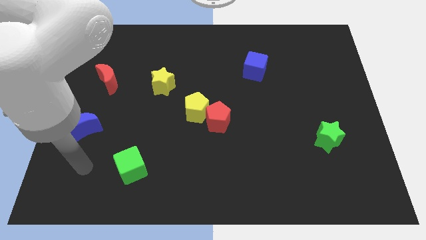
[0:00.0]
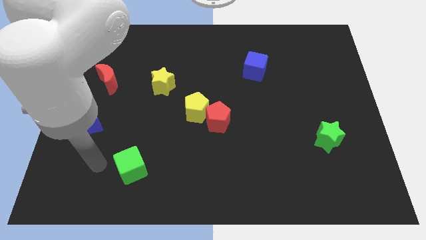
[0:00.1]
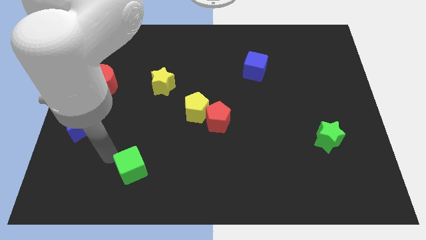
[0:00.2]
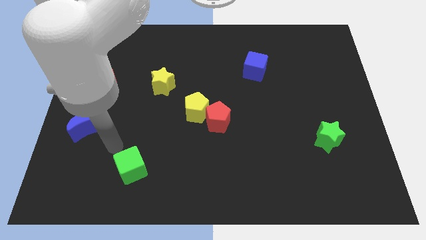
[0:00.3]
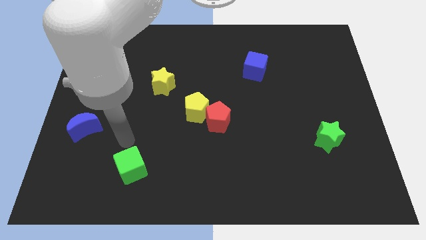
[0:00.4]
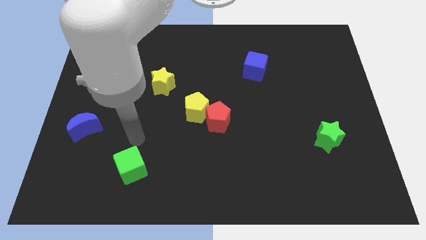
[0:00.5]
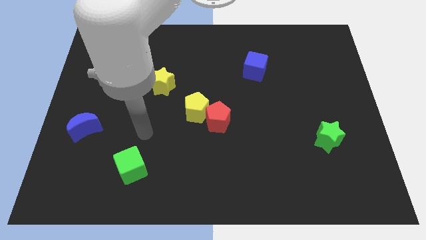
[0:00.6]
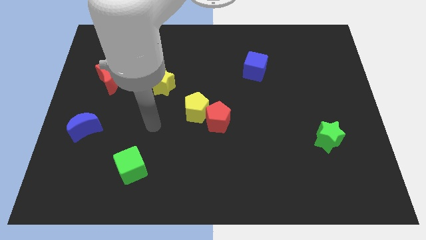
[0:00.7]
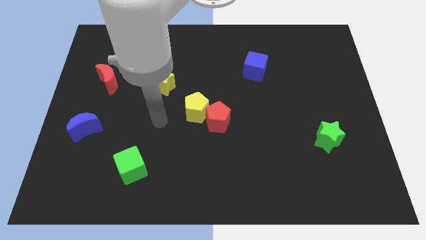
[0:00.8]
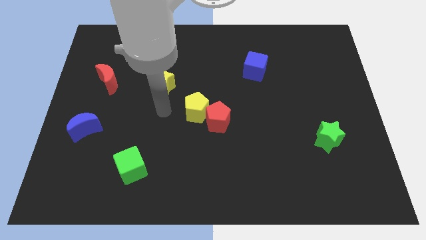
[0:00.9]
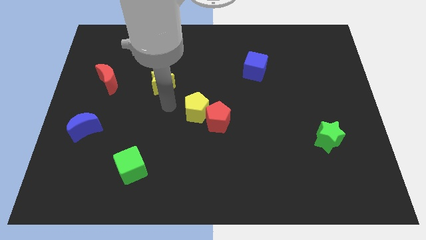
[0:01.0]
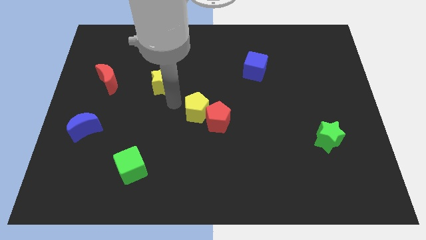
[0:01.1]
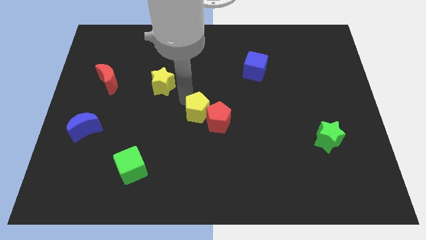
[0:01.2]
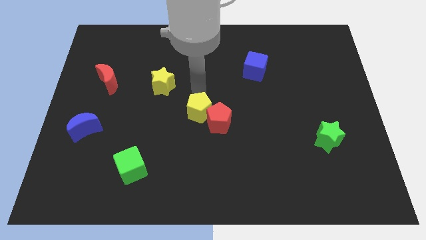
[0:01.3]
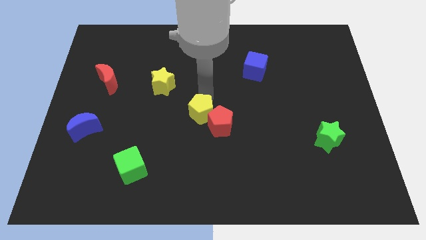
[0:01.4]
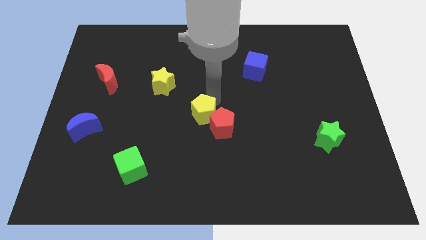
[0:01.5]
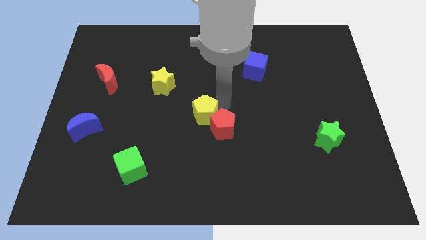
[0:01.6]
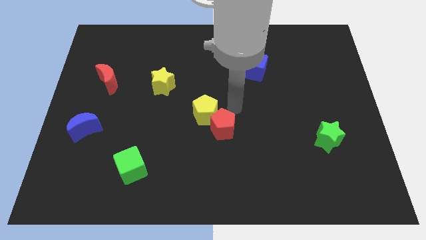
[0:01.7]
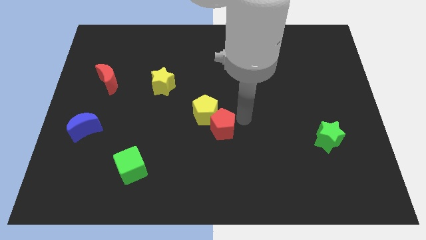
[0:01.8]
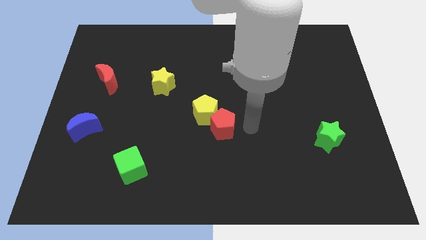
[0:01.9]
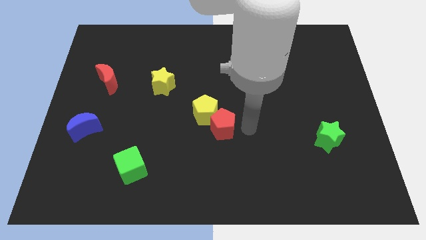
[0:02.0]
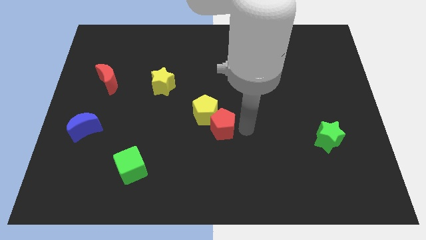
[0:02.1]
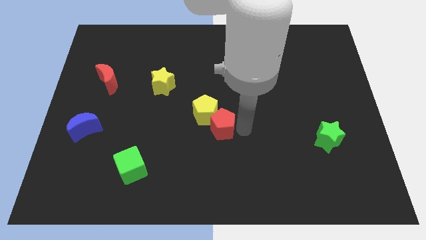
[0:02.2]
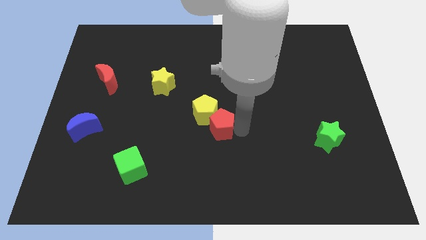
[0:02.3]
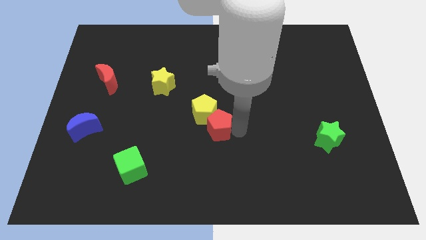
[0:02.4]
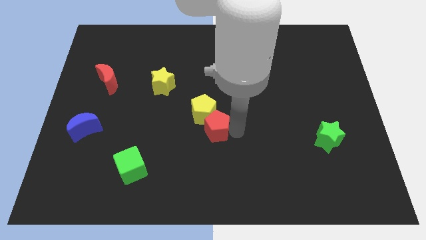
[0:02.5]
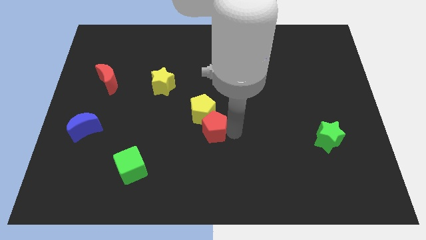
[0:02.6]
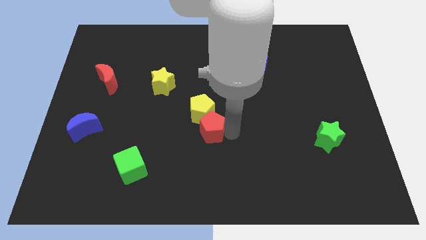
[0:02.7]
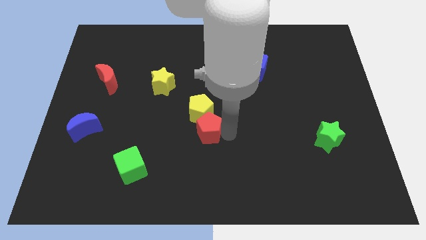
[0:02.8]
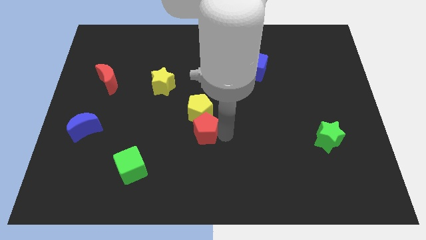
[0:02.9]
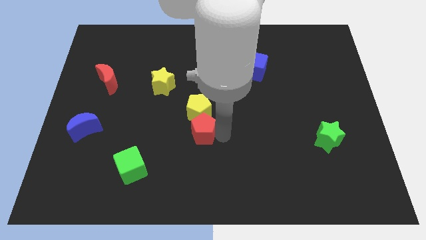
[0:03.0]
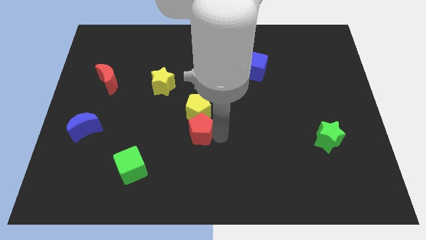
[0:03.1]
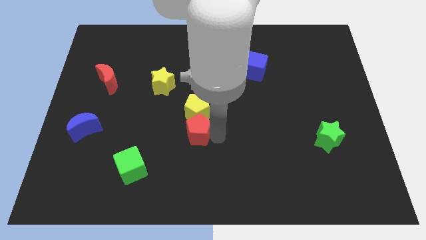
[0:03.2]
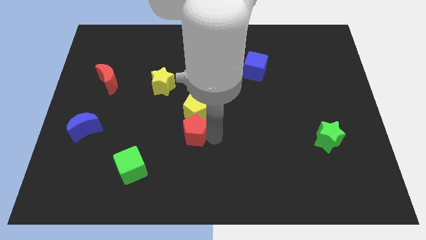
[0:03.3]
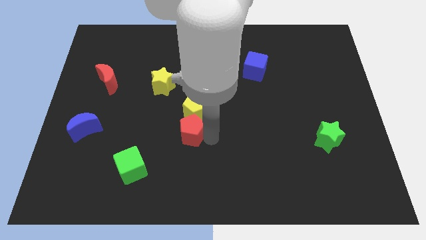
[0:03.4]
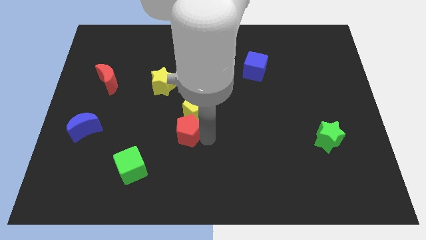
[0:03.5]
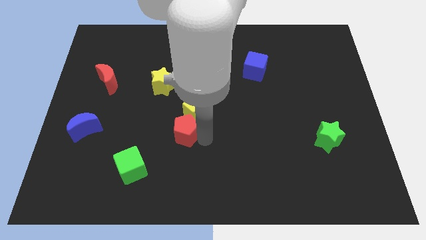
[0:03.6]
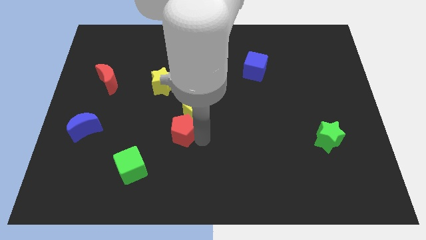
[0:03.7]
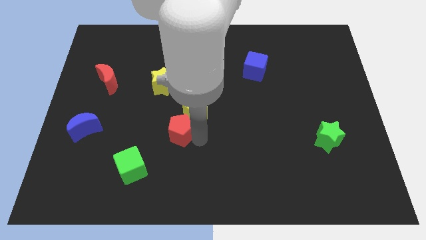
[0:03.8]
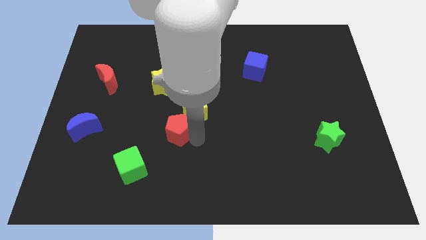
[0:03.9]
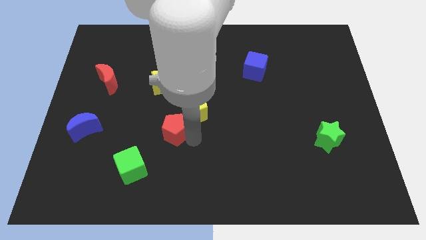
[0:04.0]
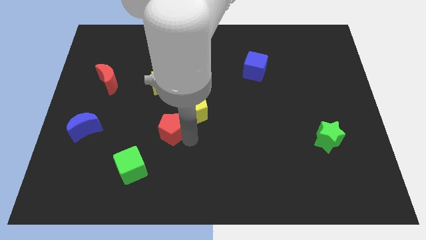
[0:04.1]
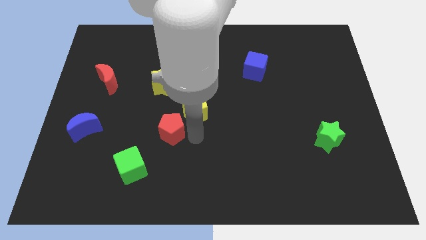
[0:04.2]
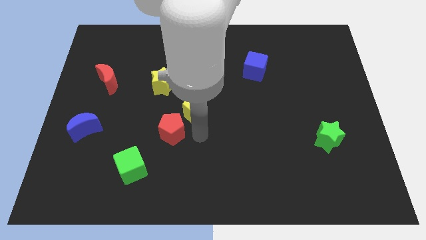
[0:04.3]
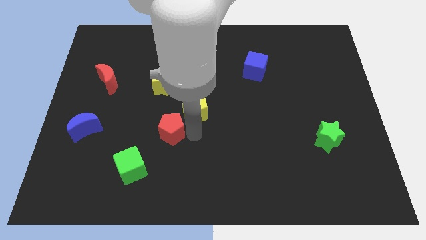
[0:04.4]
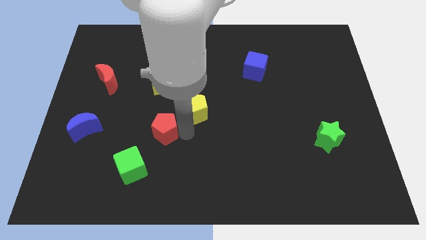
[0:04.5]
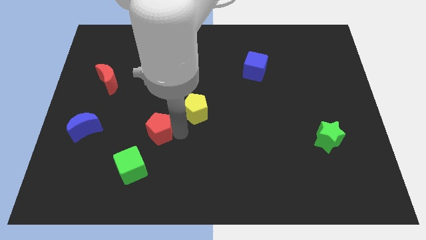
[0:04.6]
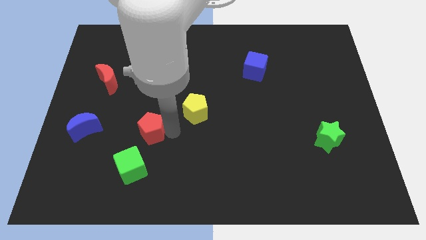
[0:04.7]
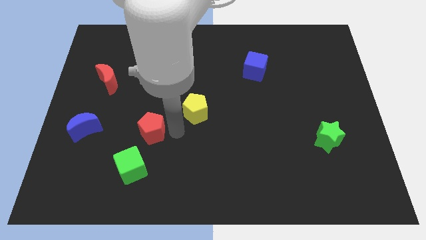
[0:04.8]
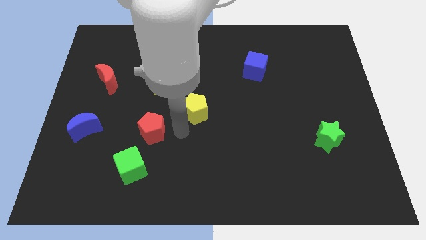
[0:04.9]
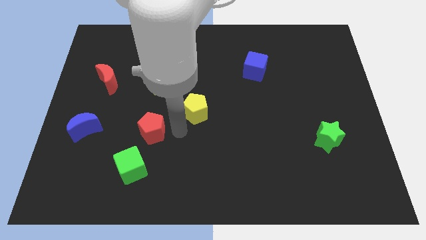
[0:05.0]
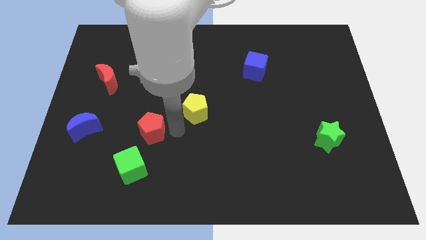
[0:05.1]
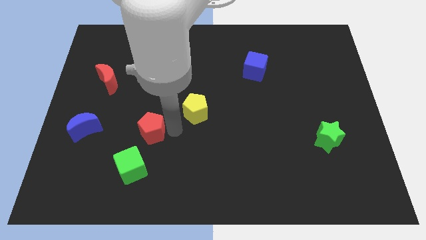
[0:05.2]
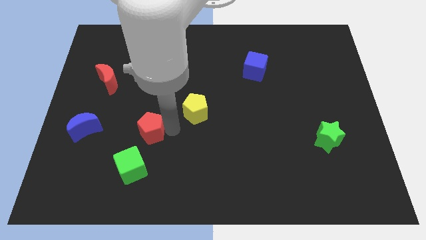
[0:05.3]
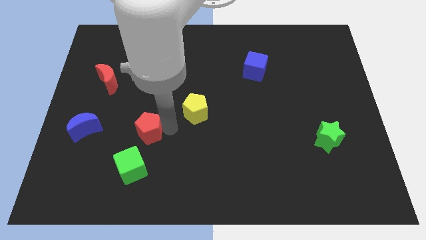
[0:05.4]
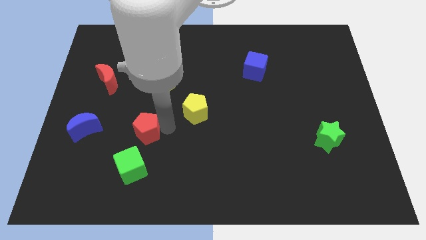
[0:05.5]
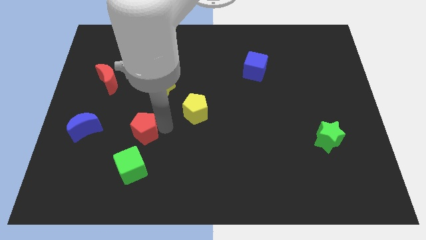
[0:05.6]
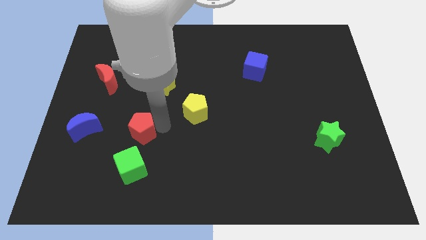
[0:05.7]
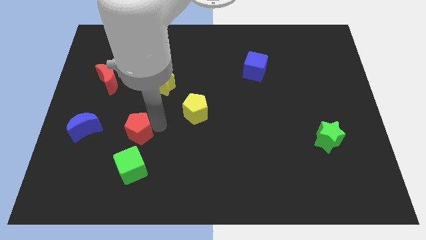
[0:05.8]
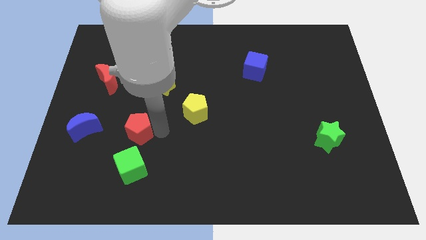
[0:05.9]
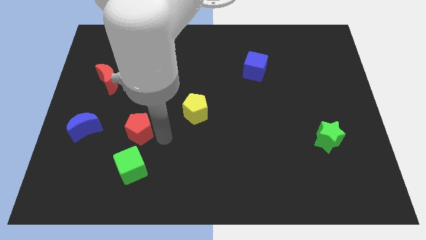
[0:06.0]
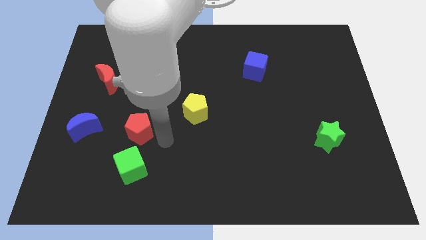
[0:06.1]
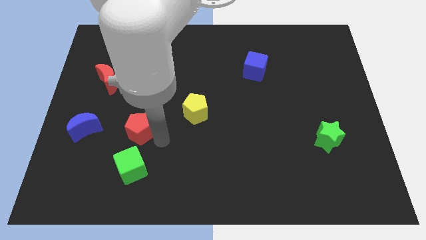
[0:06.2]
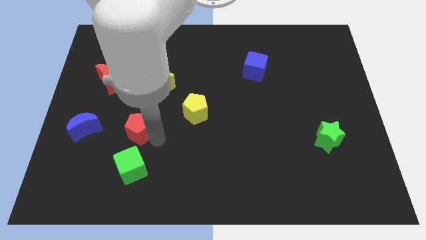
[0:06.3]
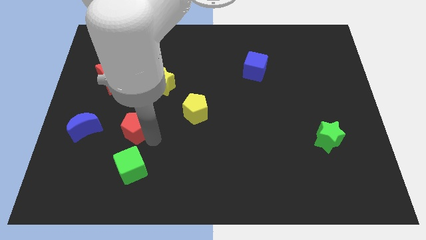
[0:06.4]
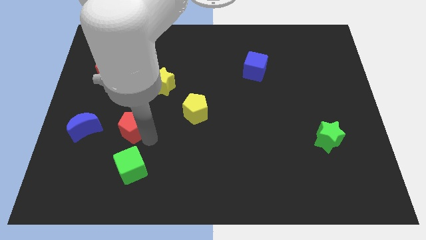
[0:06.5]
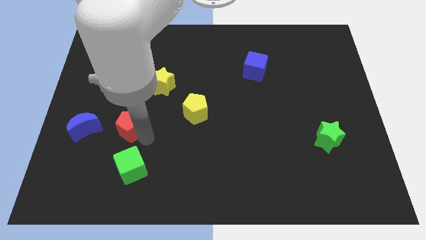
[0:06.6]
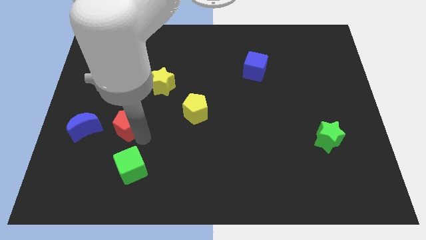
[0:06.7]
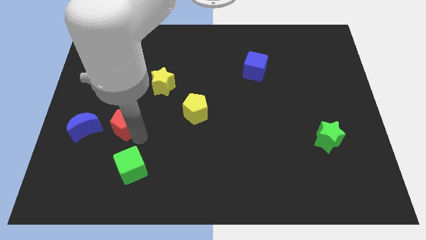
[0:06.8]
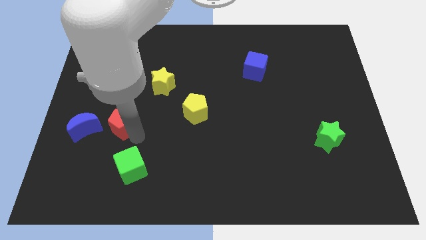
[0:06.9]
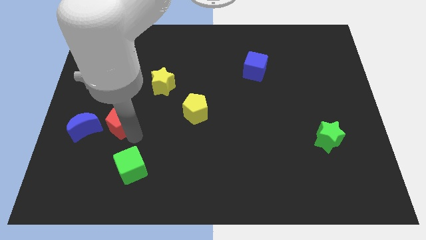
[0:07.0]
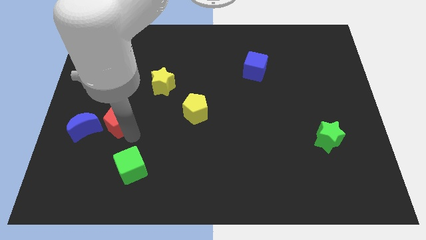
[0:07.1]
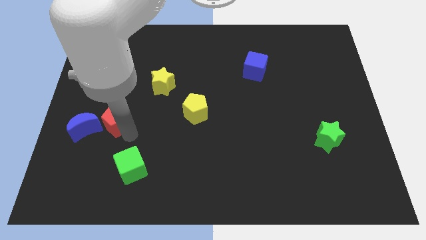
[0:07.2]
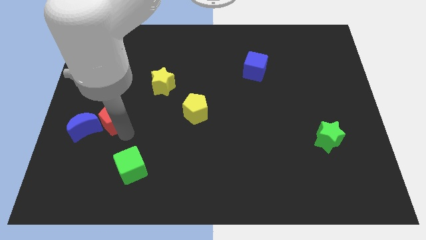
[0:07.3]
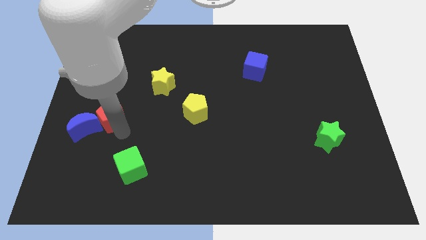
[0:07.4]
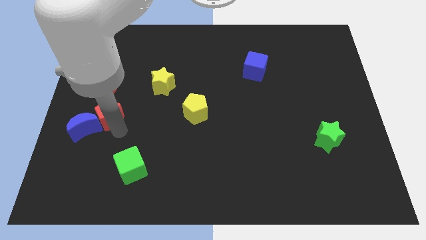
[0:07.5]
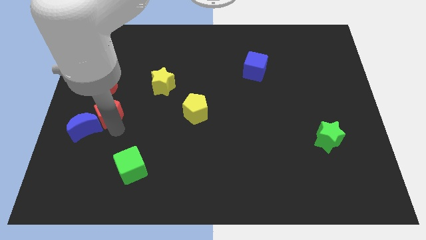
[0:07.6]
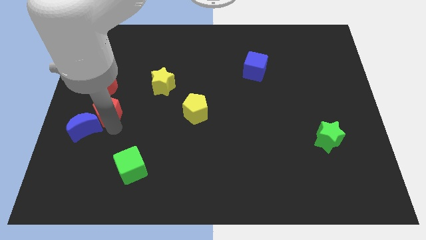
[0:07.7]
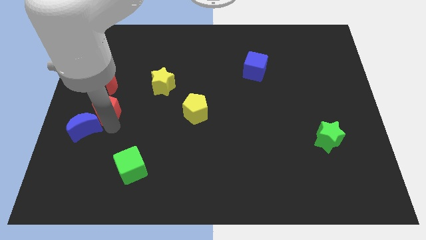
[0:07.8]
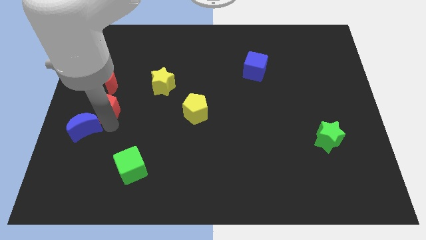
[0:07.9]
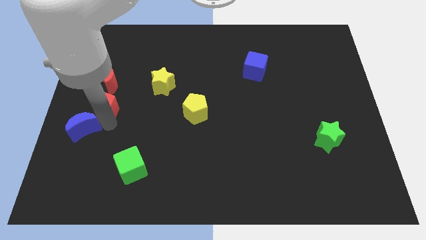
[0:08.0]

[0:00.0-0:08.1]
move the red pentagon to the left side of the board
